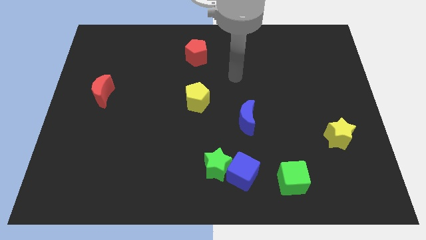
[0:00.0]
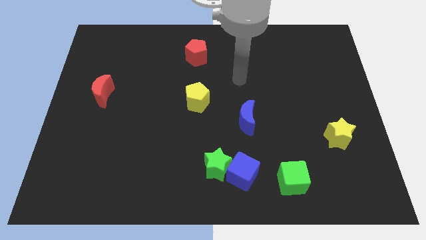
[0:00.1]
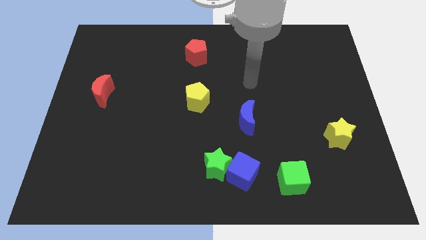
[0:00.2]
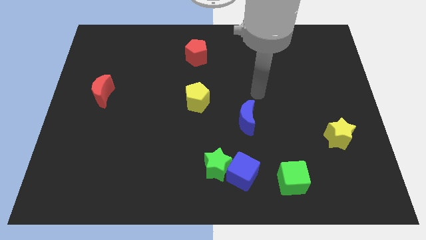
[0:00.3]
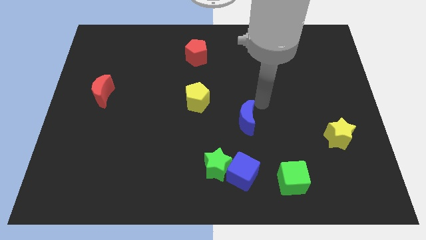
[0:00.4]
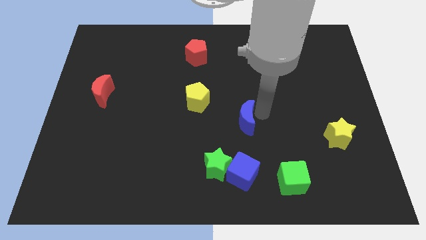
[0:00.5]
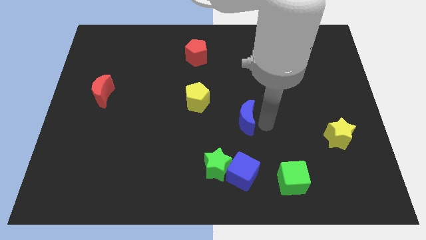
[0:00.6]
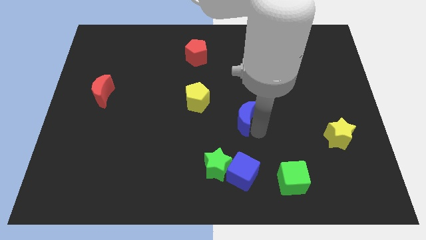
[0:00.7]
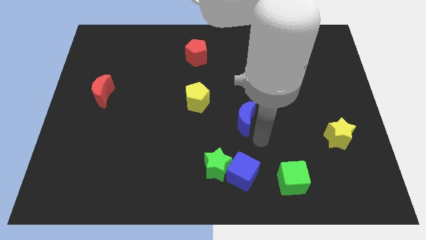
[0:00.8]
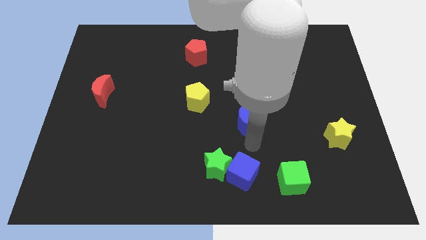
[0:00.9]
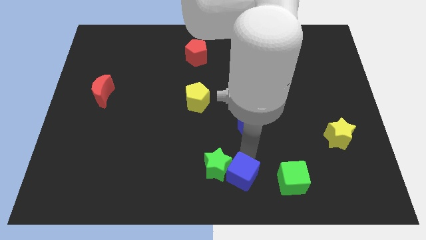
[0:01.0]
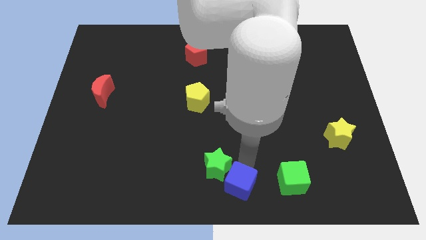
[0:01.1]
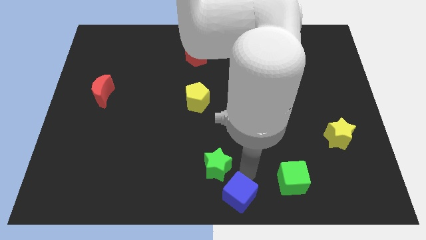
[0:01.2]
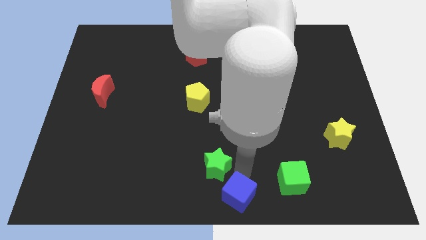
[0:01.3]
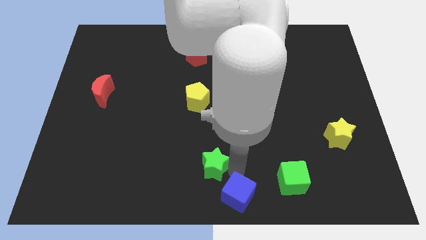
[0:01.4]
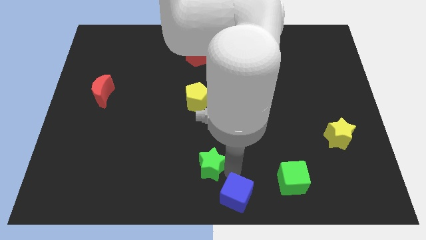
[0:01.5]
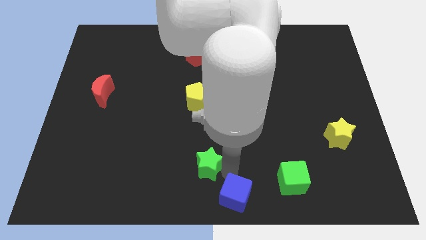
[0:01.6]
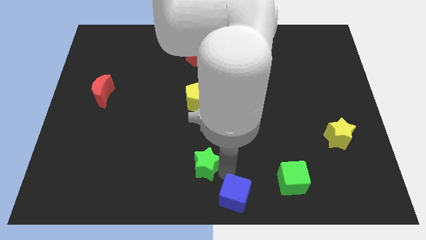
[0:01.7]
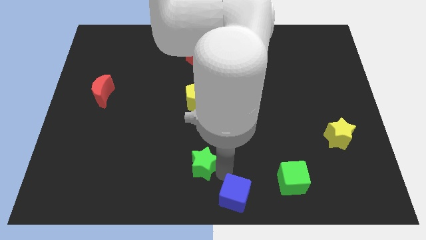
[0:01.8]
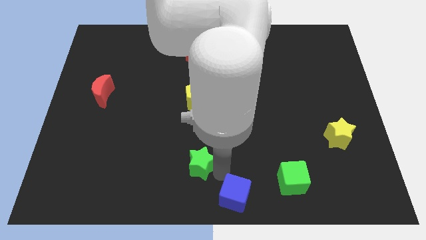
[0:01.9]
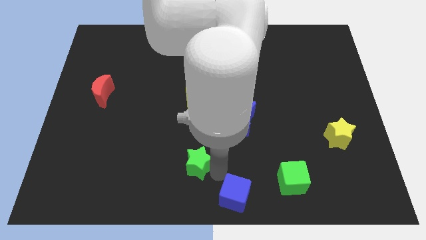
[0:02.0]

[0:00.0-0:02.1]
separate the green star from the blue cube

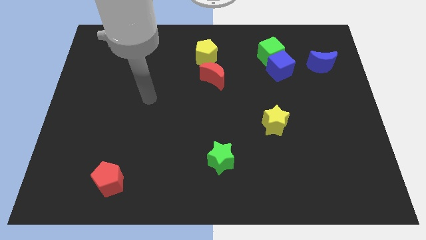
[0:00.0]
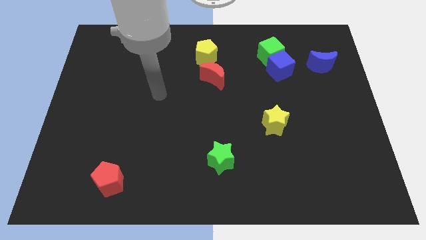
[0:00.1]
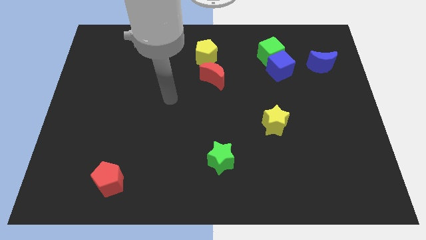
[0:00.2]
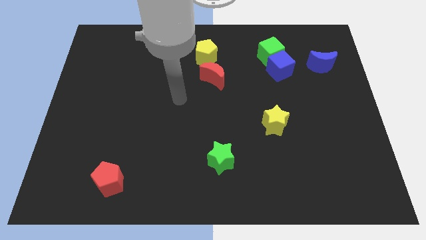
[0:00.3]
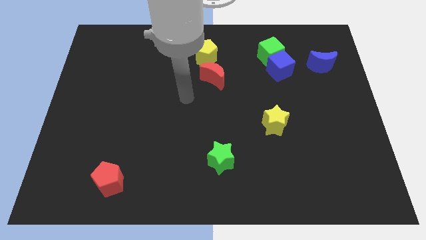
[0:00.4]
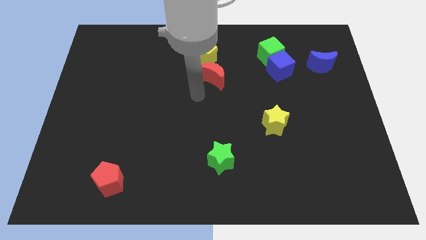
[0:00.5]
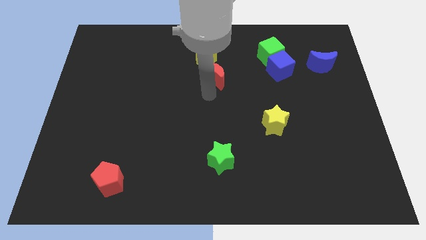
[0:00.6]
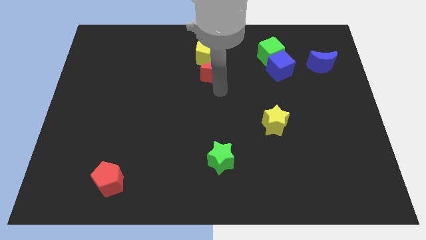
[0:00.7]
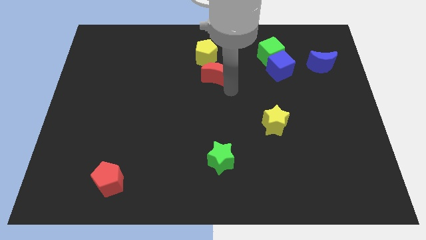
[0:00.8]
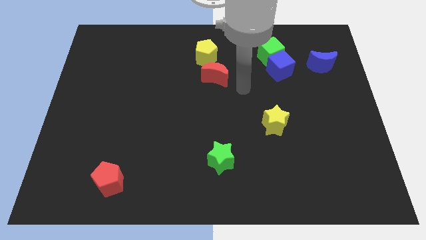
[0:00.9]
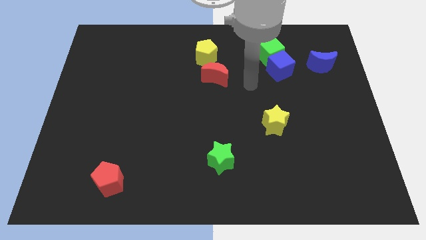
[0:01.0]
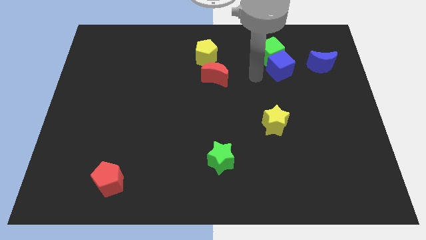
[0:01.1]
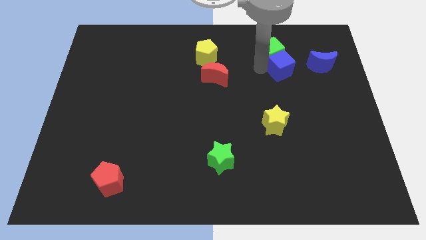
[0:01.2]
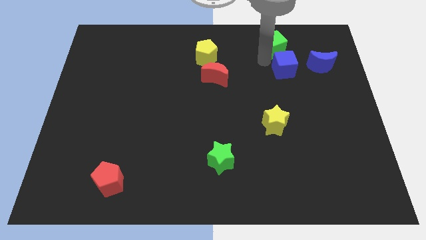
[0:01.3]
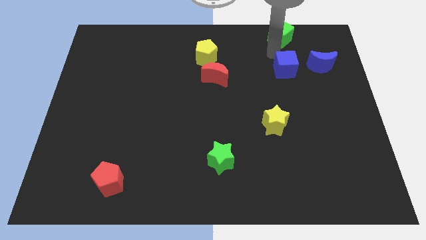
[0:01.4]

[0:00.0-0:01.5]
separate the blue cube from the green cube

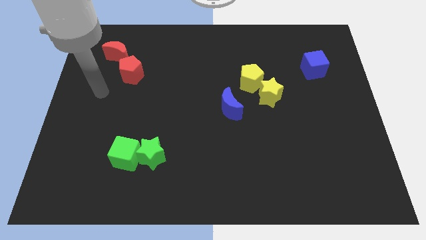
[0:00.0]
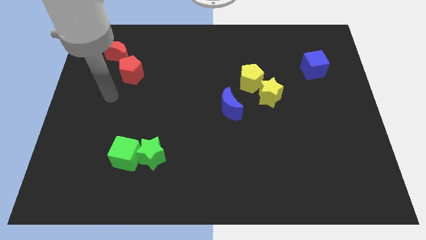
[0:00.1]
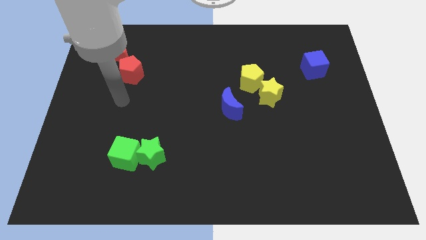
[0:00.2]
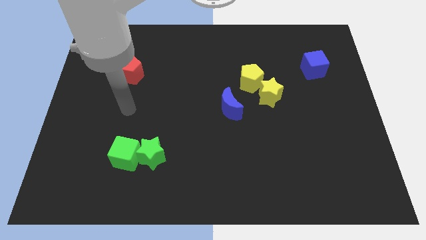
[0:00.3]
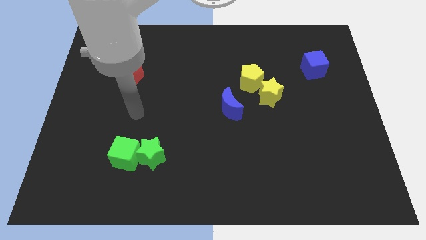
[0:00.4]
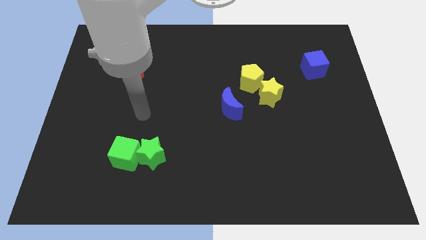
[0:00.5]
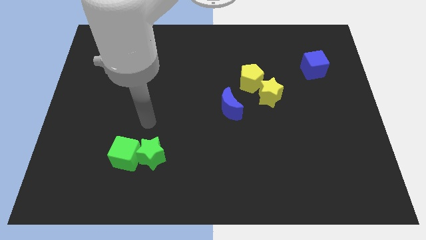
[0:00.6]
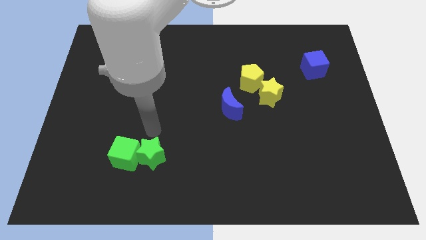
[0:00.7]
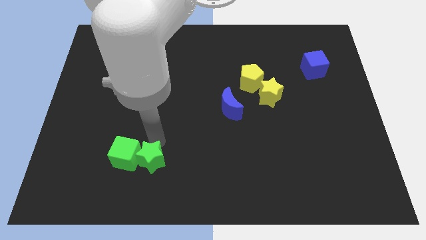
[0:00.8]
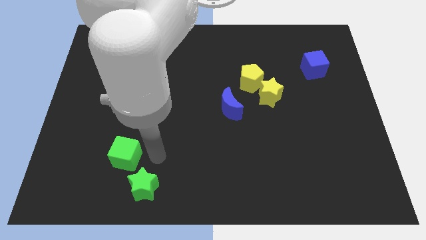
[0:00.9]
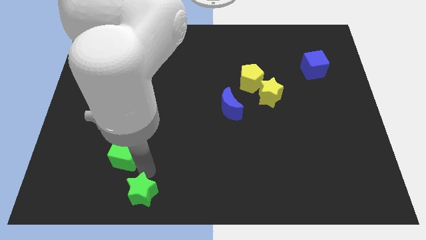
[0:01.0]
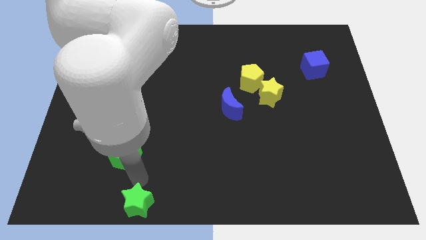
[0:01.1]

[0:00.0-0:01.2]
separate the green cube from the green star

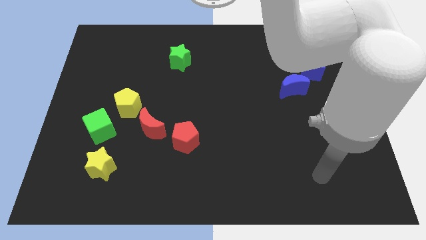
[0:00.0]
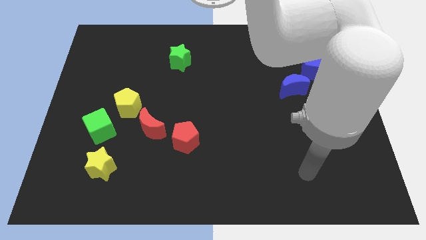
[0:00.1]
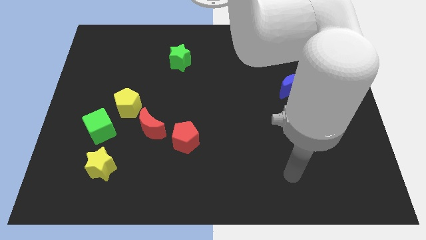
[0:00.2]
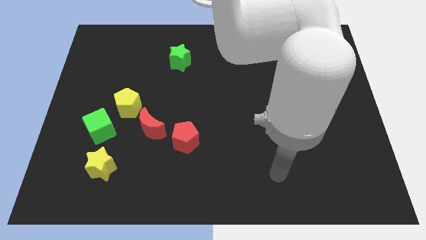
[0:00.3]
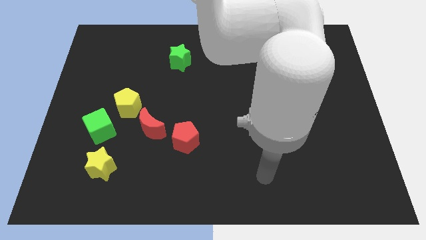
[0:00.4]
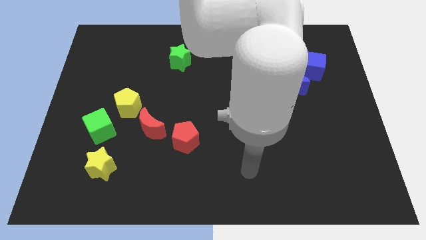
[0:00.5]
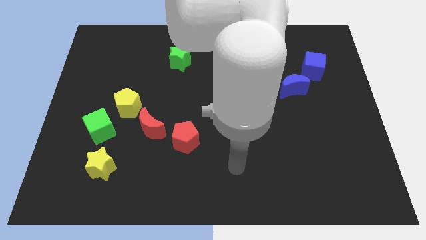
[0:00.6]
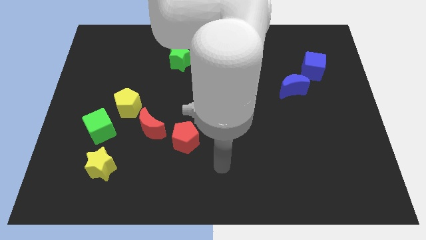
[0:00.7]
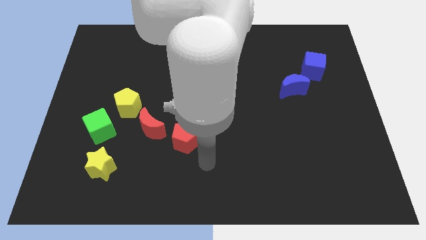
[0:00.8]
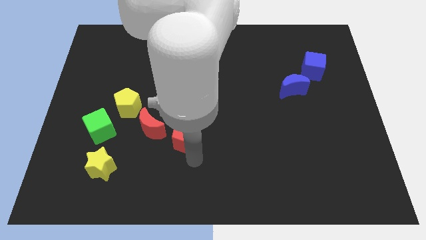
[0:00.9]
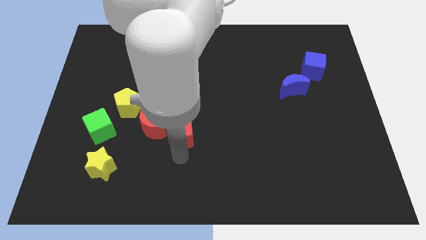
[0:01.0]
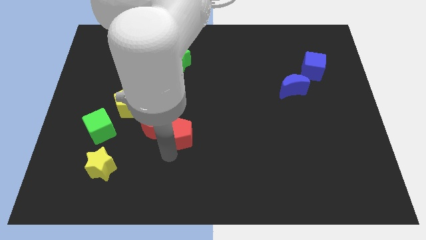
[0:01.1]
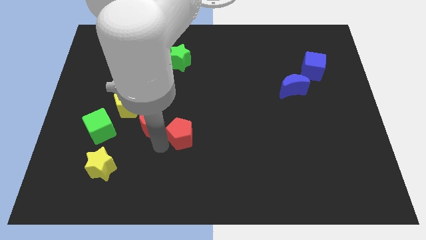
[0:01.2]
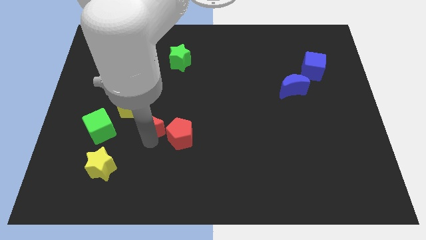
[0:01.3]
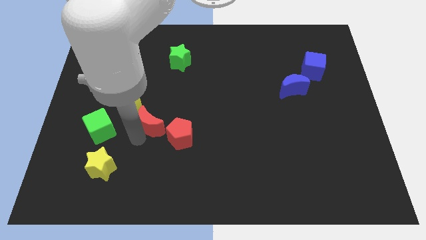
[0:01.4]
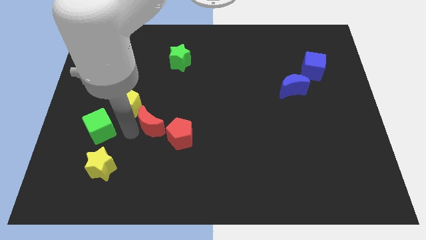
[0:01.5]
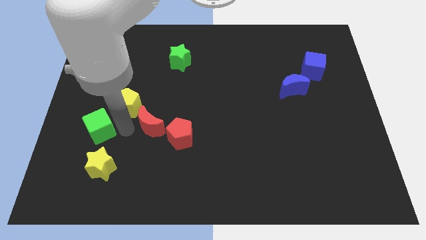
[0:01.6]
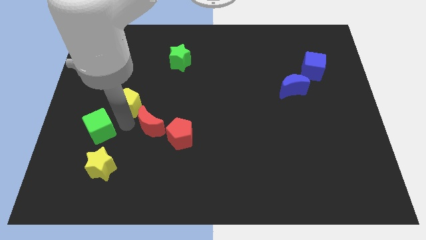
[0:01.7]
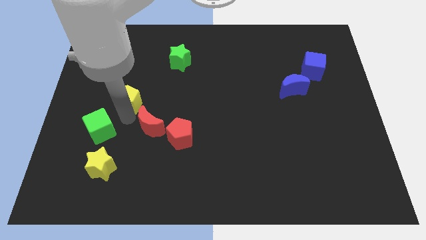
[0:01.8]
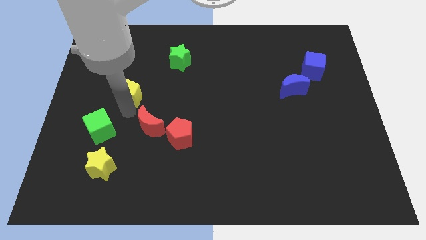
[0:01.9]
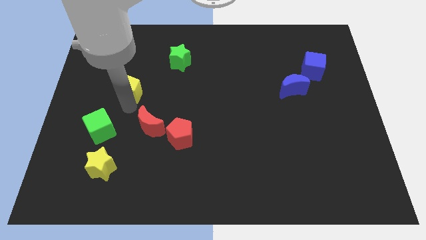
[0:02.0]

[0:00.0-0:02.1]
separate the yellow pentagon from the green cube and red moon

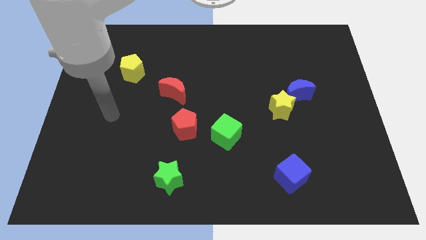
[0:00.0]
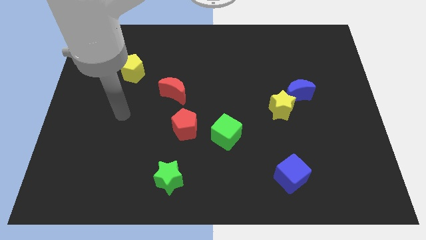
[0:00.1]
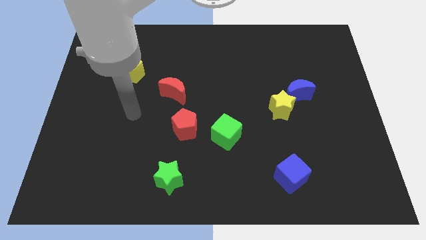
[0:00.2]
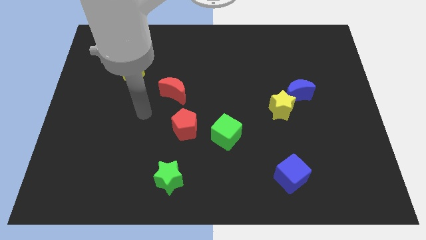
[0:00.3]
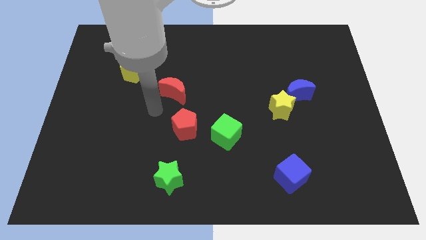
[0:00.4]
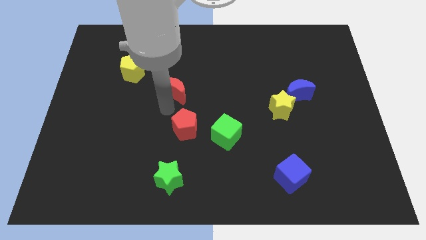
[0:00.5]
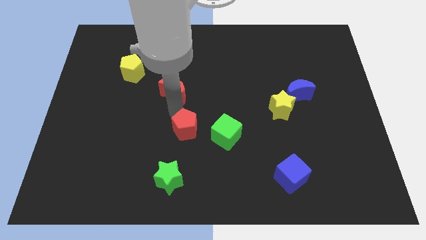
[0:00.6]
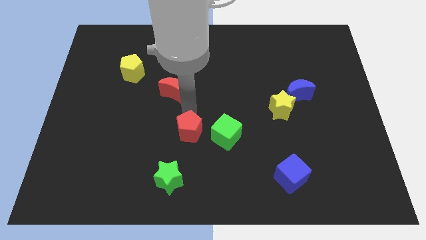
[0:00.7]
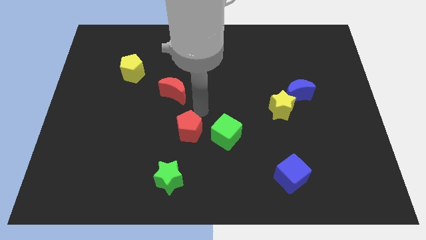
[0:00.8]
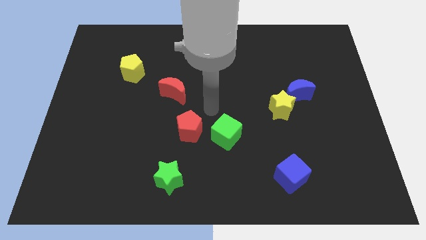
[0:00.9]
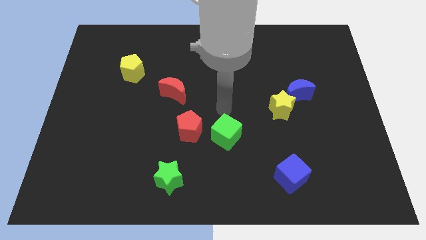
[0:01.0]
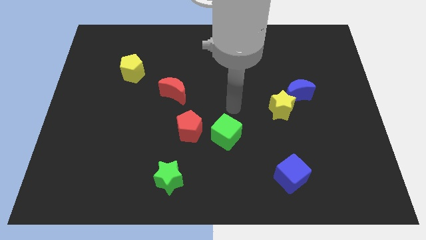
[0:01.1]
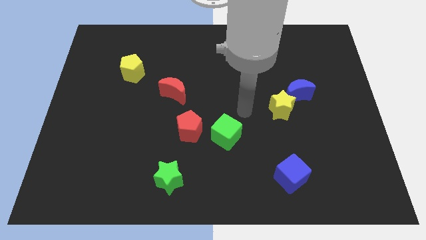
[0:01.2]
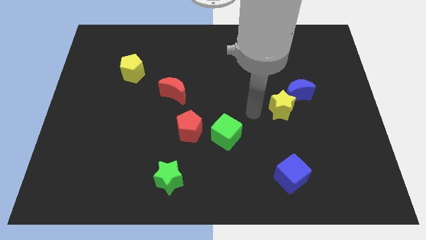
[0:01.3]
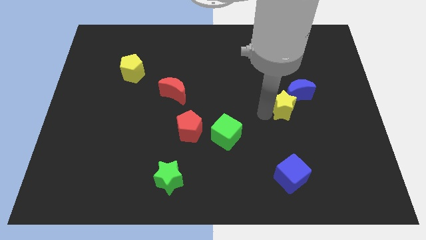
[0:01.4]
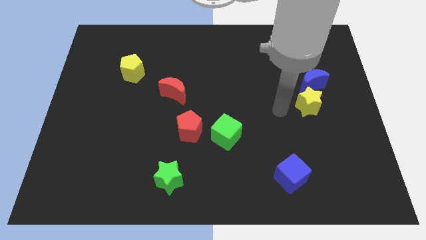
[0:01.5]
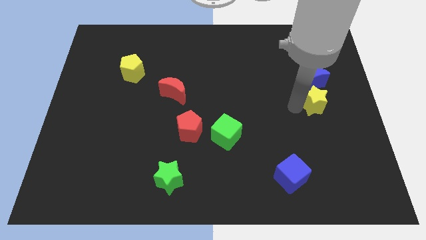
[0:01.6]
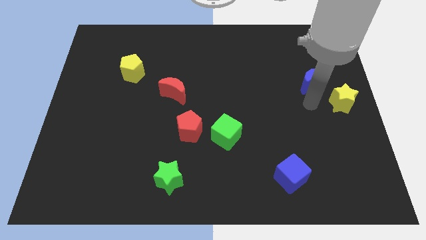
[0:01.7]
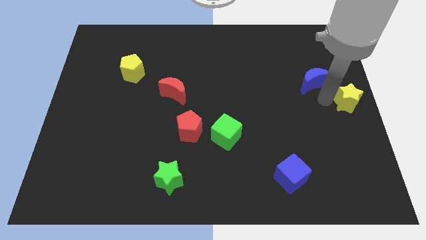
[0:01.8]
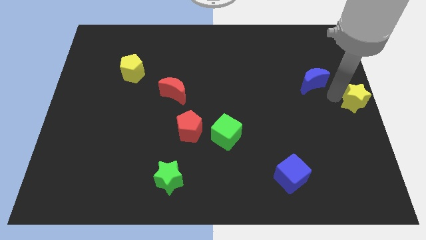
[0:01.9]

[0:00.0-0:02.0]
separate the blue moon from the yellow star

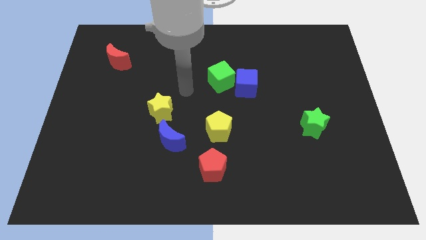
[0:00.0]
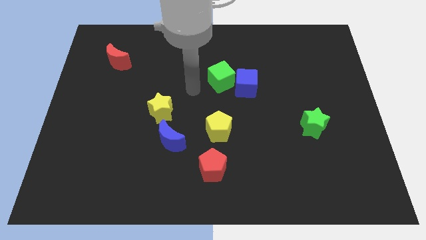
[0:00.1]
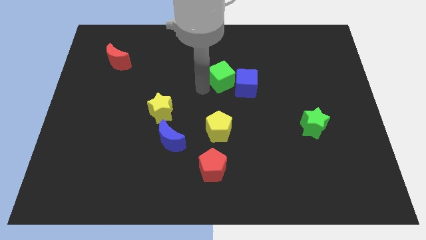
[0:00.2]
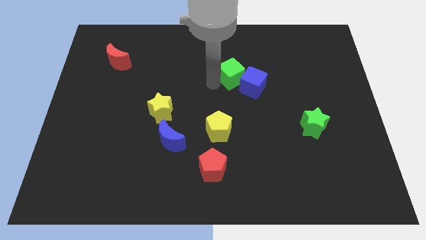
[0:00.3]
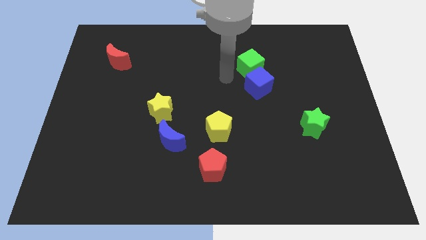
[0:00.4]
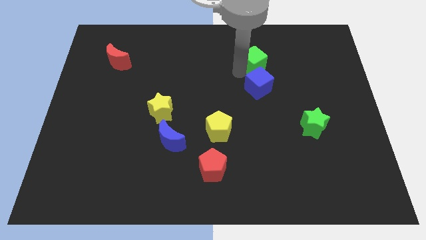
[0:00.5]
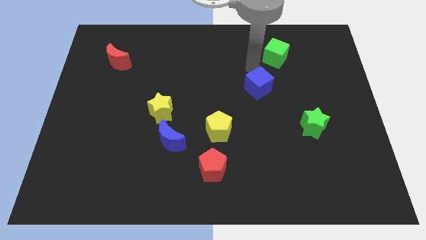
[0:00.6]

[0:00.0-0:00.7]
pull the blue cube apart from the green cube
